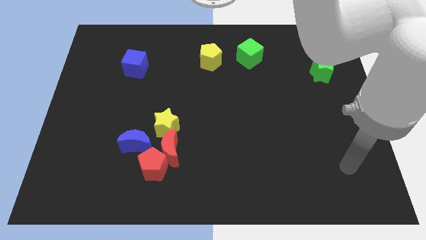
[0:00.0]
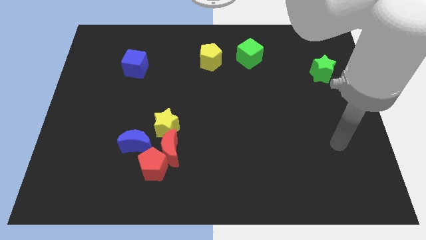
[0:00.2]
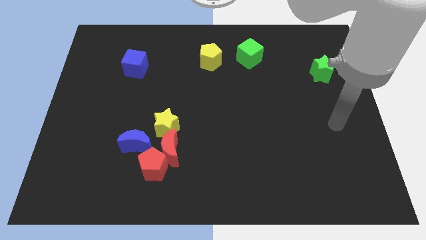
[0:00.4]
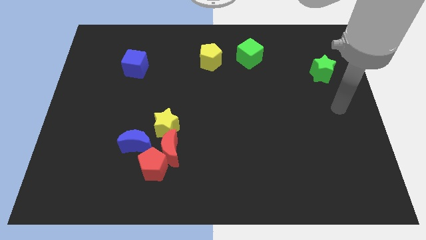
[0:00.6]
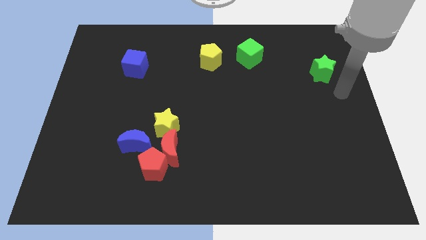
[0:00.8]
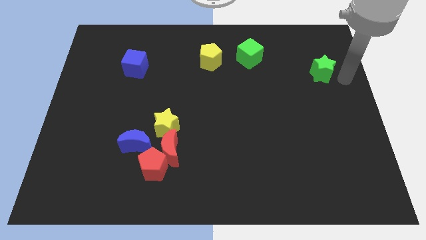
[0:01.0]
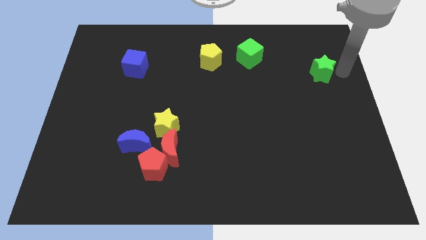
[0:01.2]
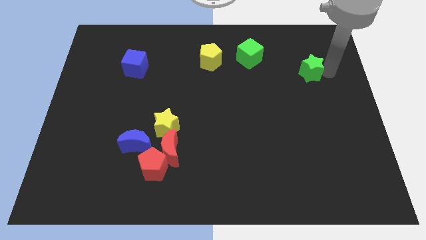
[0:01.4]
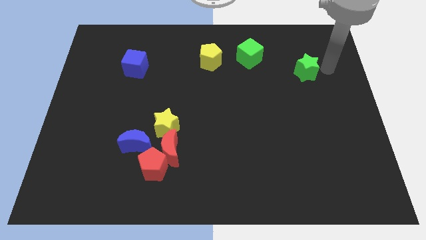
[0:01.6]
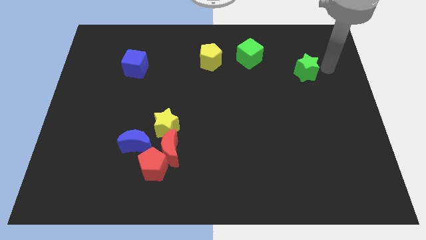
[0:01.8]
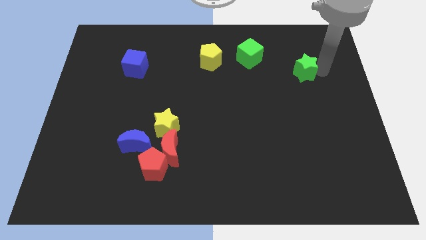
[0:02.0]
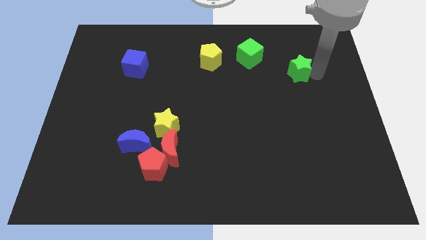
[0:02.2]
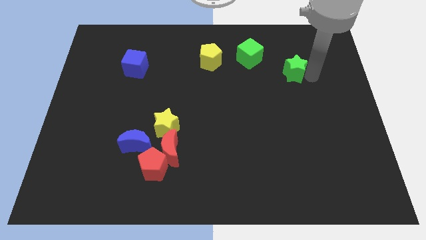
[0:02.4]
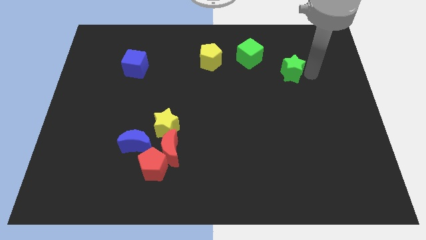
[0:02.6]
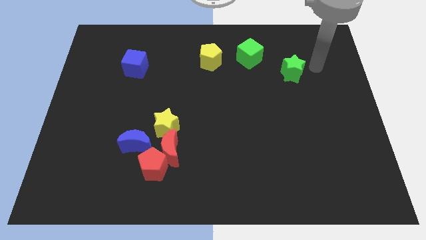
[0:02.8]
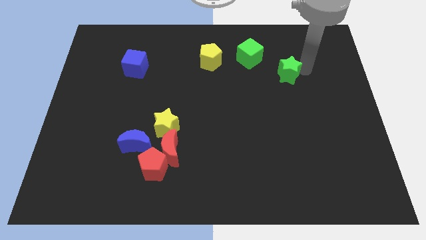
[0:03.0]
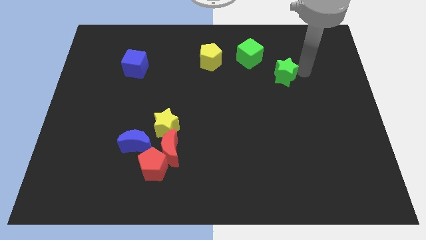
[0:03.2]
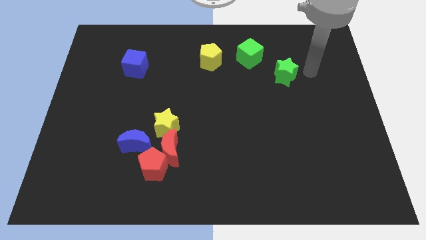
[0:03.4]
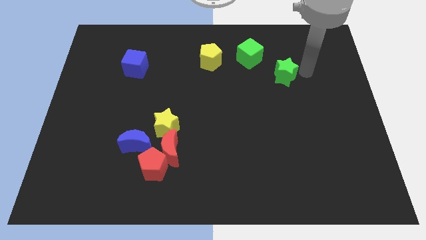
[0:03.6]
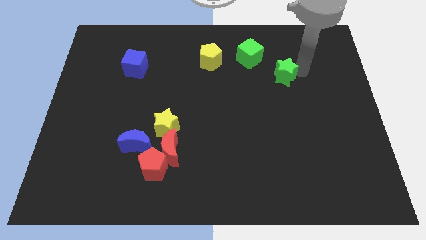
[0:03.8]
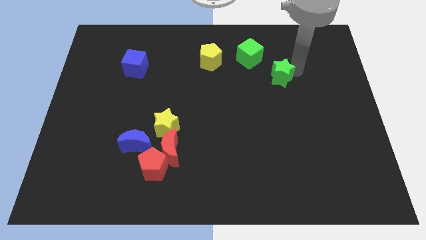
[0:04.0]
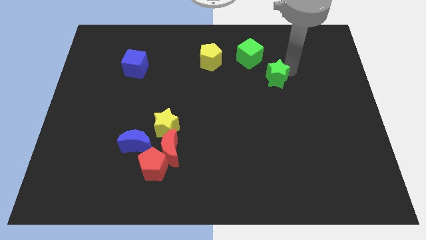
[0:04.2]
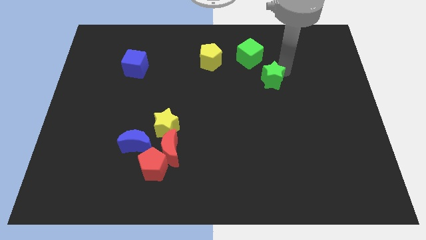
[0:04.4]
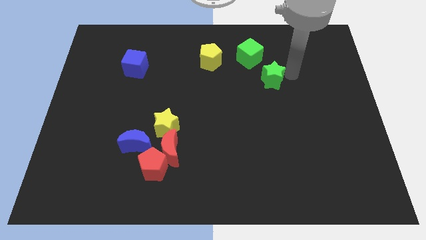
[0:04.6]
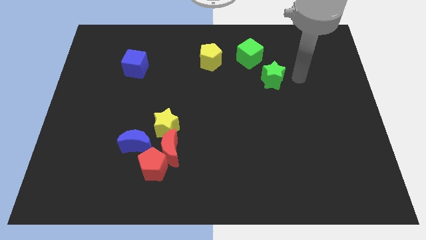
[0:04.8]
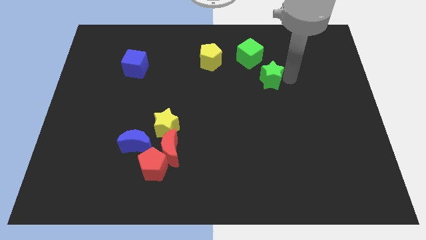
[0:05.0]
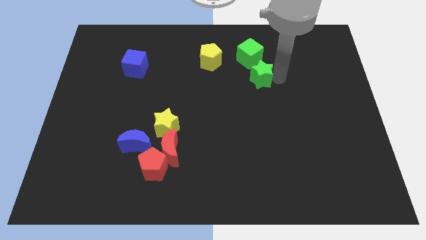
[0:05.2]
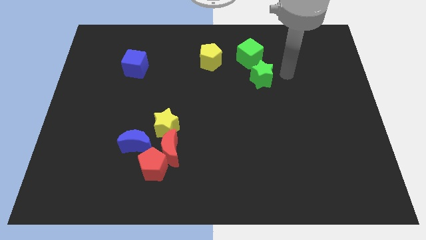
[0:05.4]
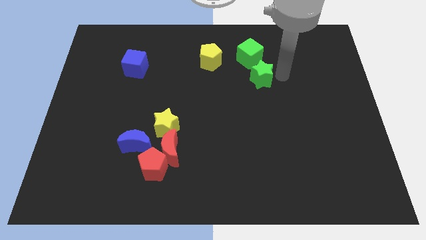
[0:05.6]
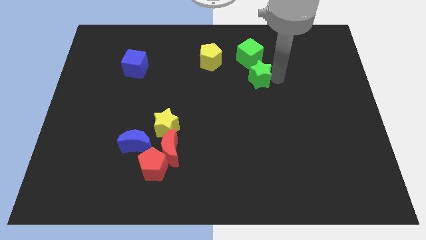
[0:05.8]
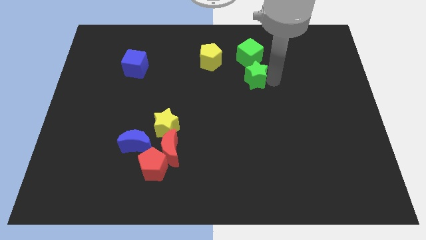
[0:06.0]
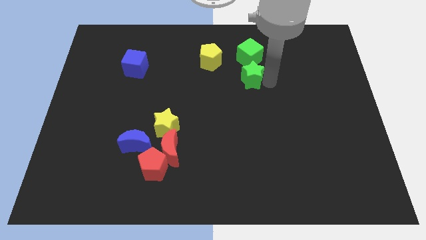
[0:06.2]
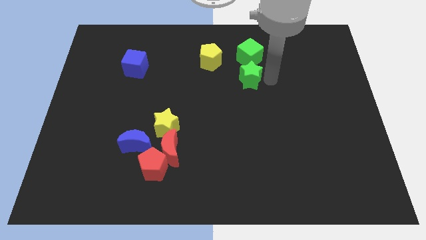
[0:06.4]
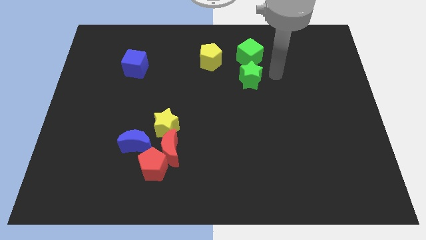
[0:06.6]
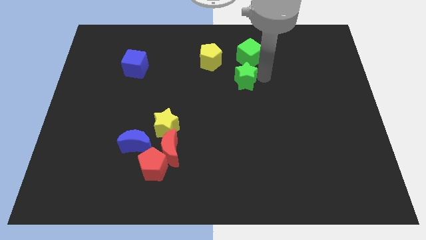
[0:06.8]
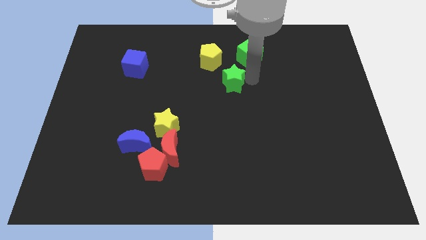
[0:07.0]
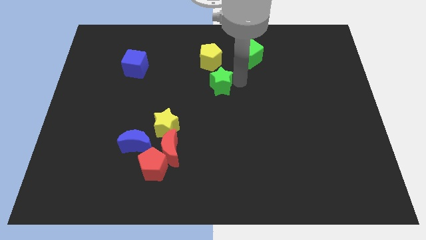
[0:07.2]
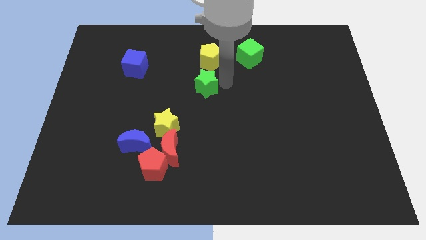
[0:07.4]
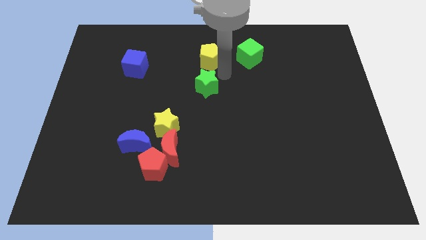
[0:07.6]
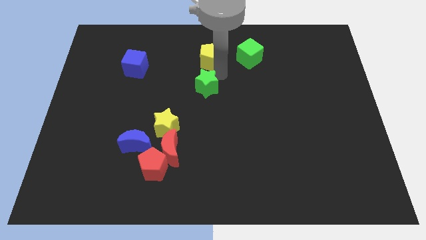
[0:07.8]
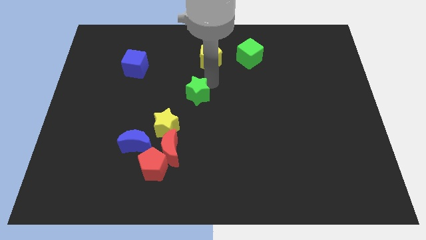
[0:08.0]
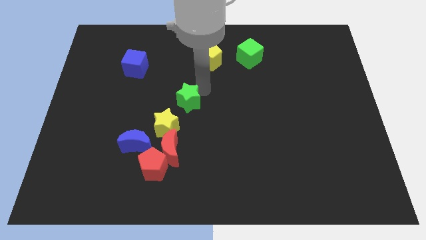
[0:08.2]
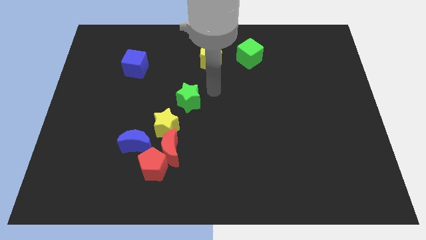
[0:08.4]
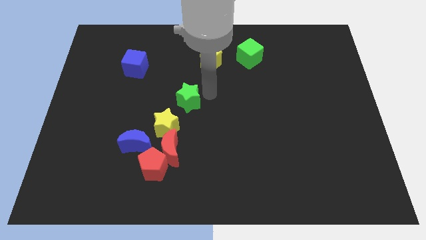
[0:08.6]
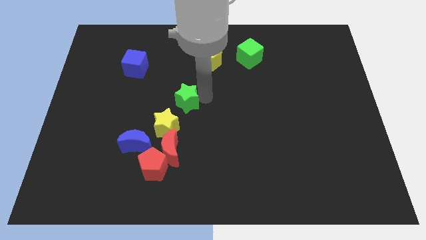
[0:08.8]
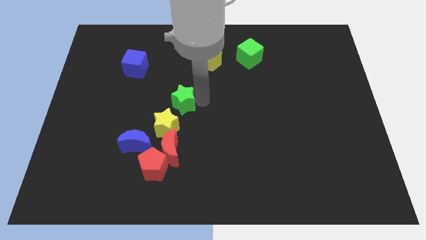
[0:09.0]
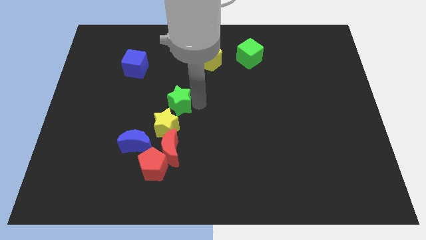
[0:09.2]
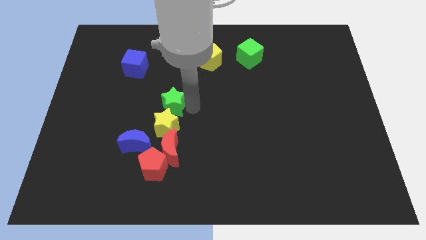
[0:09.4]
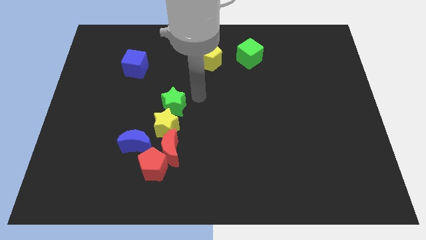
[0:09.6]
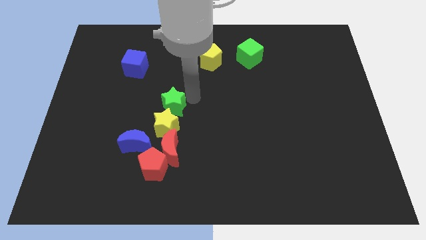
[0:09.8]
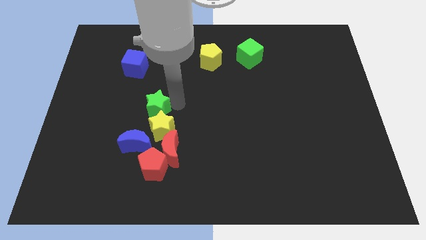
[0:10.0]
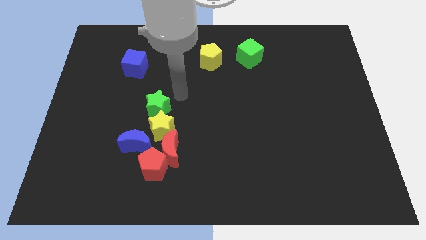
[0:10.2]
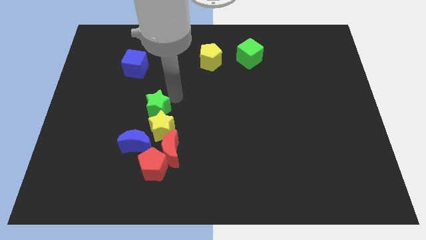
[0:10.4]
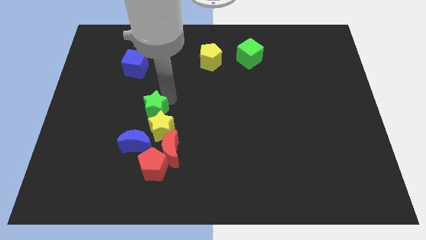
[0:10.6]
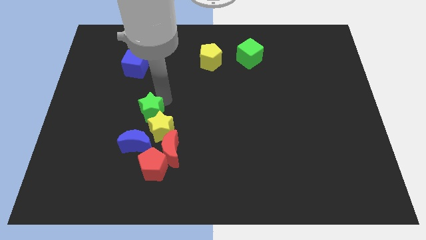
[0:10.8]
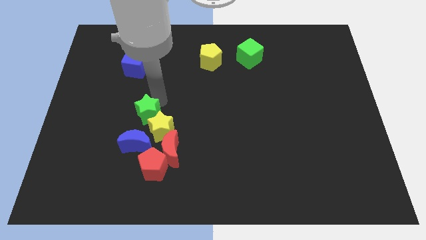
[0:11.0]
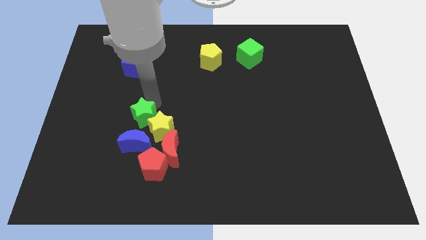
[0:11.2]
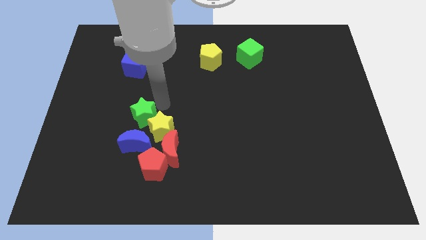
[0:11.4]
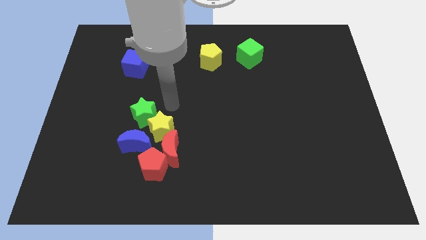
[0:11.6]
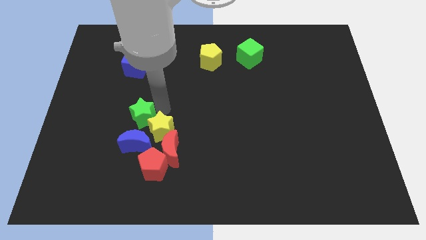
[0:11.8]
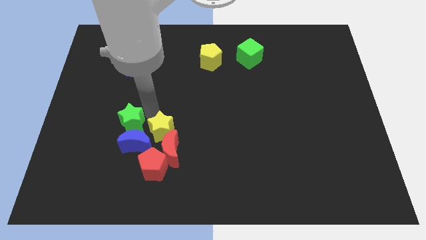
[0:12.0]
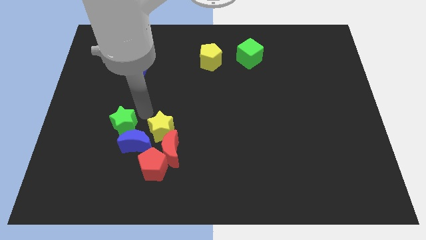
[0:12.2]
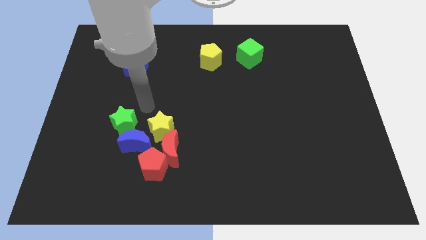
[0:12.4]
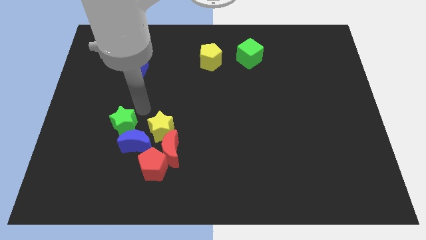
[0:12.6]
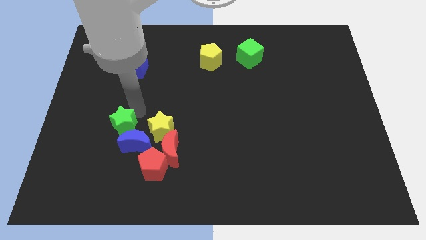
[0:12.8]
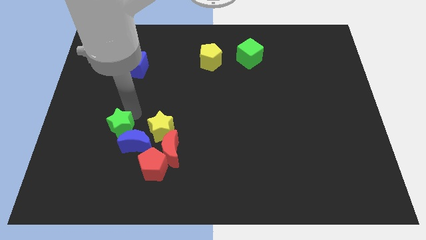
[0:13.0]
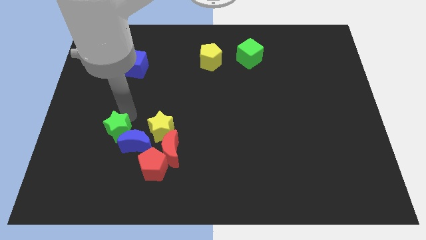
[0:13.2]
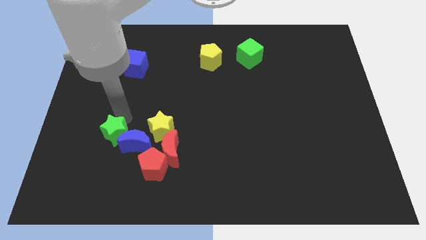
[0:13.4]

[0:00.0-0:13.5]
move the green star just left of the red moon

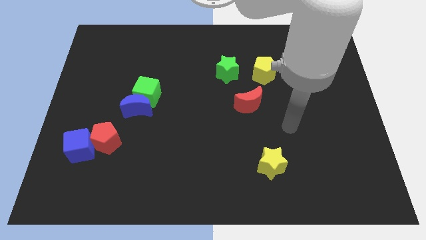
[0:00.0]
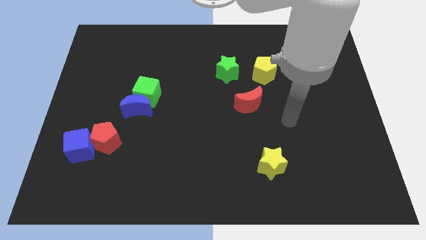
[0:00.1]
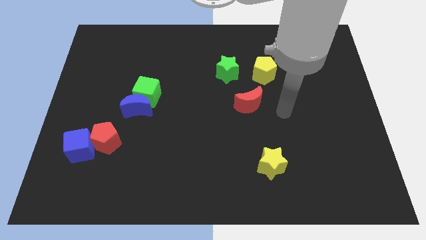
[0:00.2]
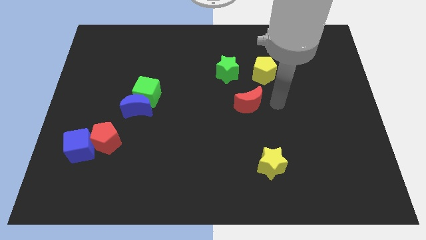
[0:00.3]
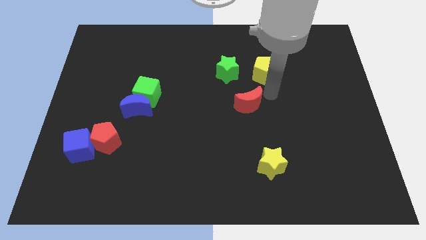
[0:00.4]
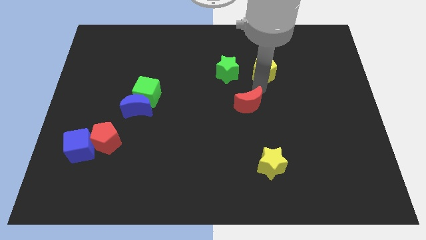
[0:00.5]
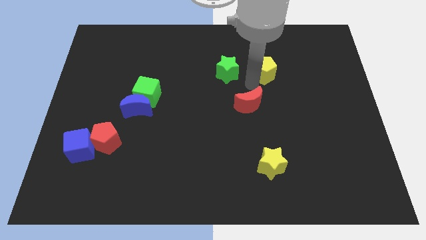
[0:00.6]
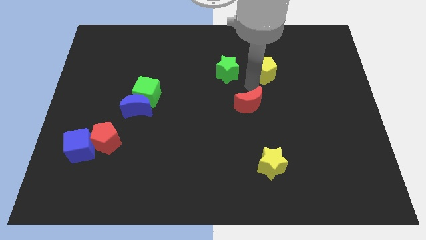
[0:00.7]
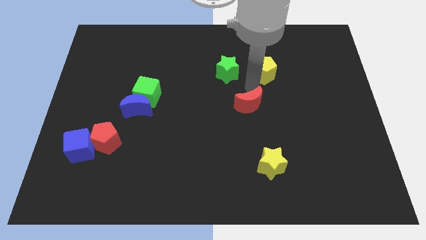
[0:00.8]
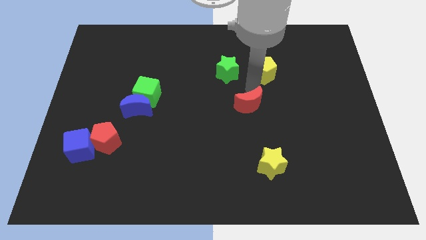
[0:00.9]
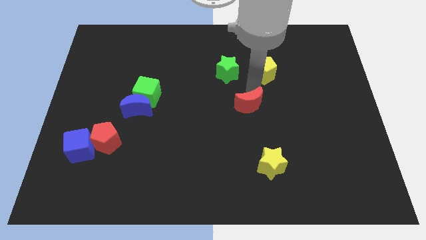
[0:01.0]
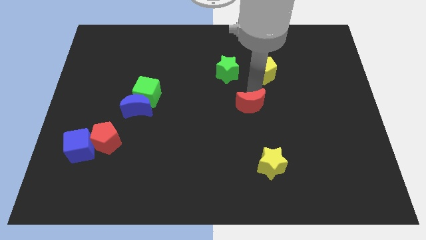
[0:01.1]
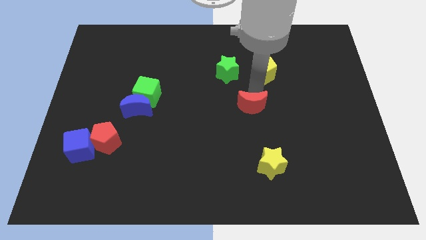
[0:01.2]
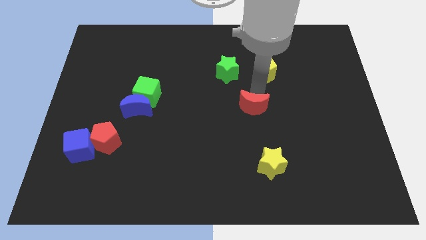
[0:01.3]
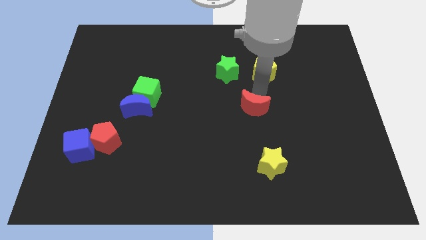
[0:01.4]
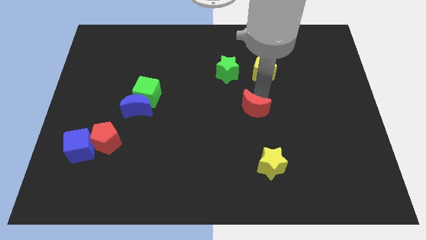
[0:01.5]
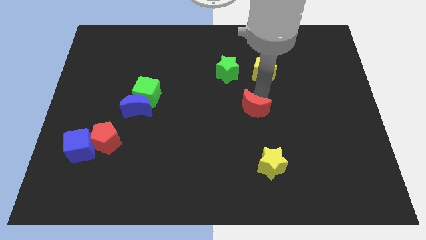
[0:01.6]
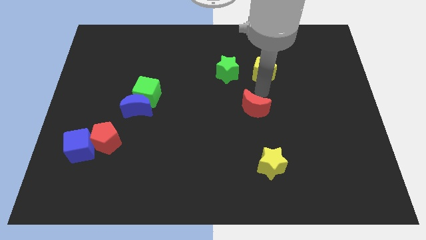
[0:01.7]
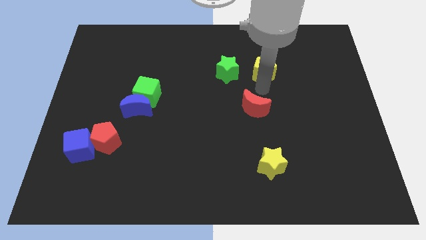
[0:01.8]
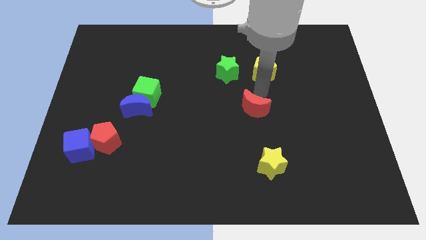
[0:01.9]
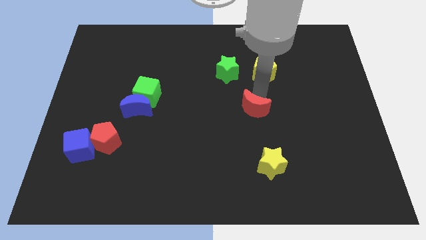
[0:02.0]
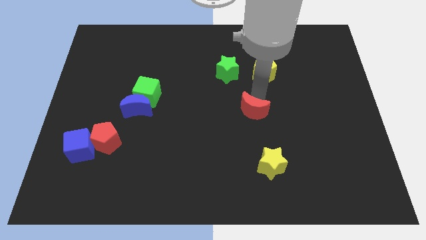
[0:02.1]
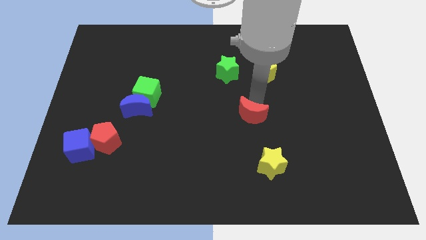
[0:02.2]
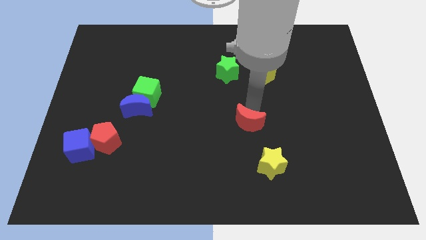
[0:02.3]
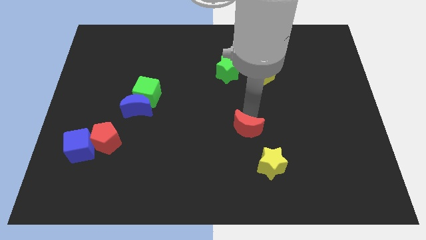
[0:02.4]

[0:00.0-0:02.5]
move the red moon to the top left side of the yellow star
